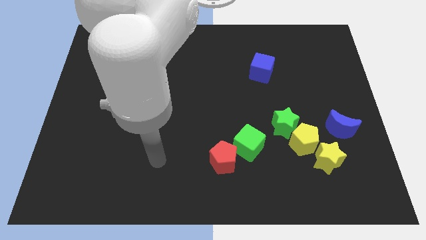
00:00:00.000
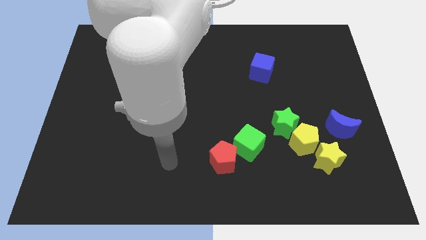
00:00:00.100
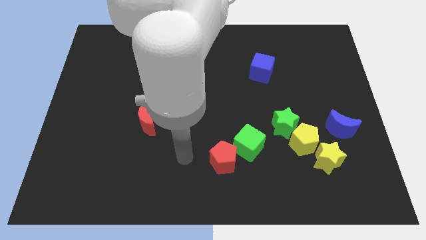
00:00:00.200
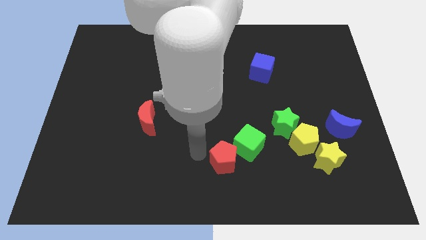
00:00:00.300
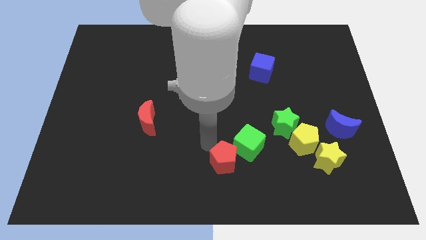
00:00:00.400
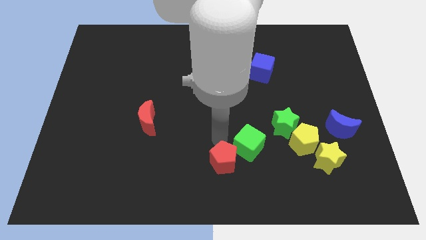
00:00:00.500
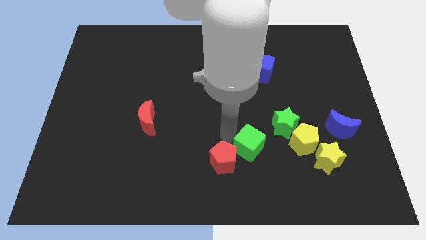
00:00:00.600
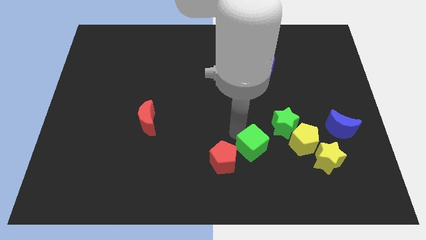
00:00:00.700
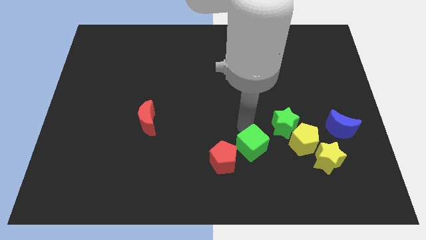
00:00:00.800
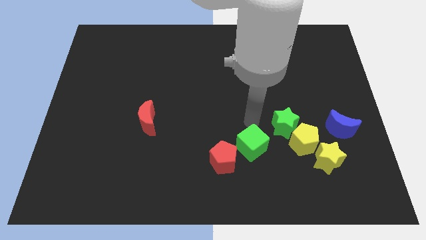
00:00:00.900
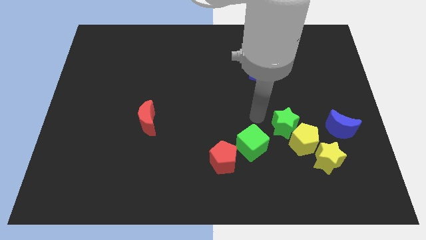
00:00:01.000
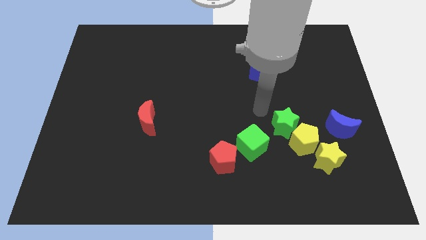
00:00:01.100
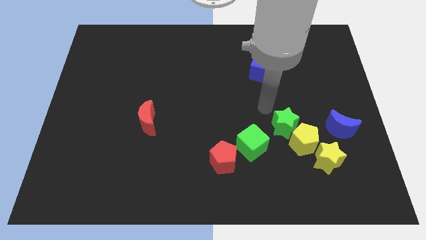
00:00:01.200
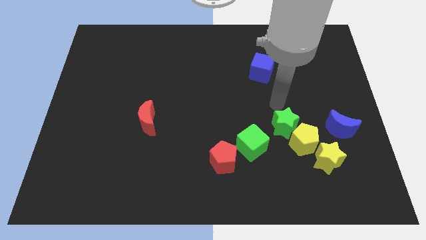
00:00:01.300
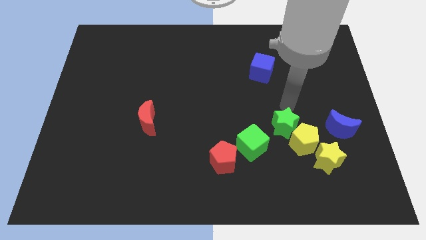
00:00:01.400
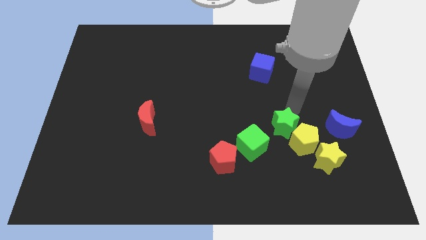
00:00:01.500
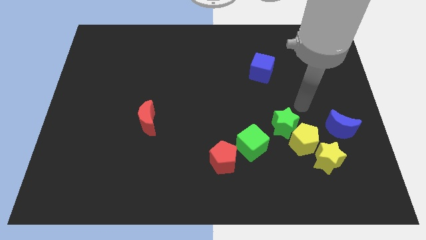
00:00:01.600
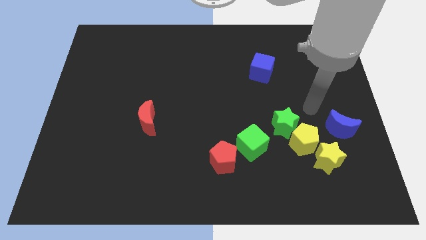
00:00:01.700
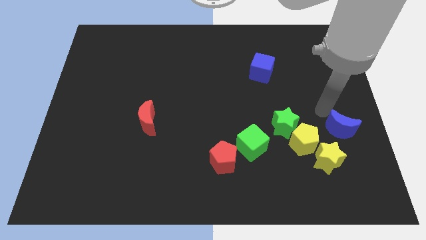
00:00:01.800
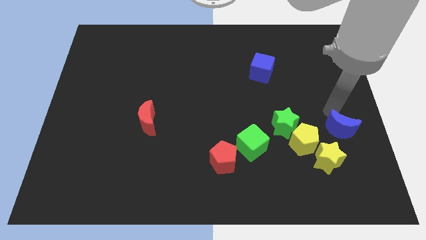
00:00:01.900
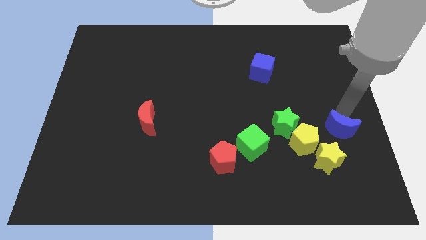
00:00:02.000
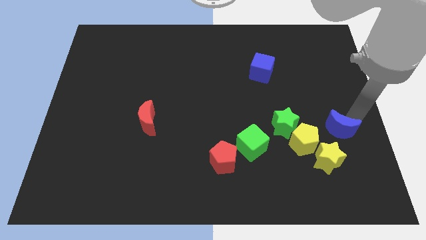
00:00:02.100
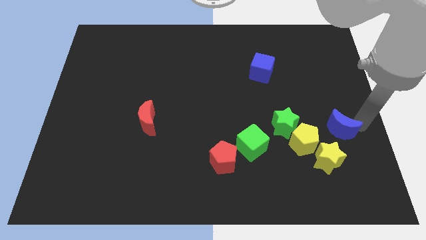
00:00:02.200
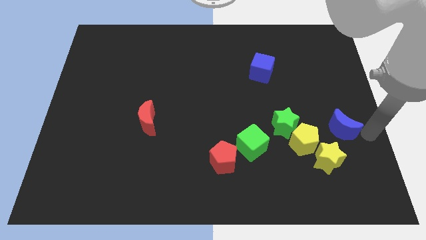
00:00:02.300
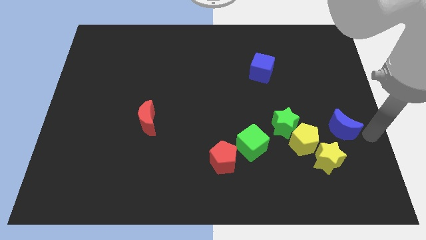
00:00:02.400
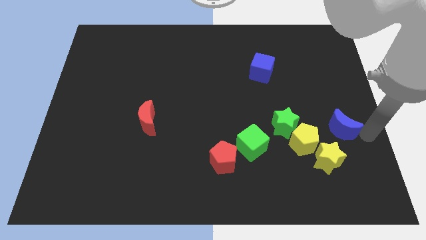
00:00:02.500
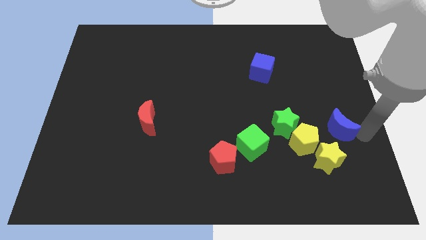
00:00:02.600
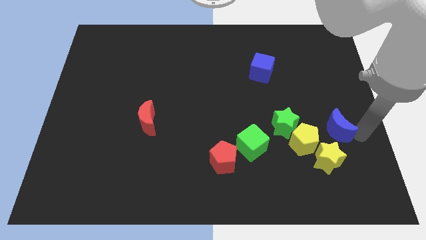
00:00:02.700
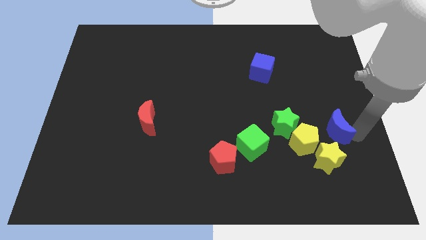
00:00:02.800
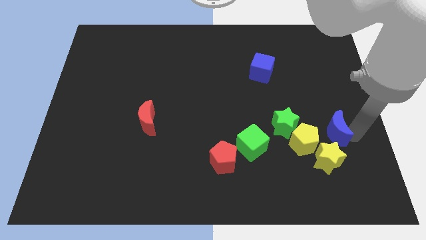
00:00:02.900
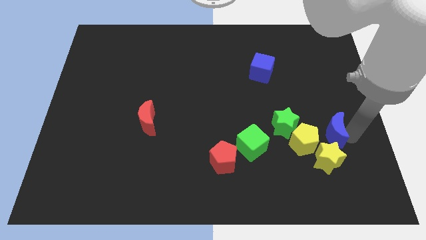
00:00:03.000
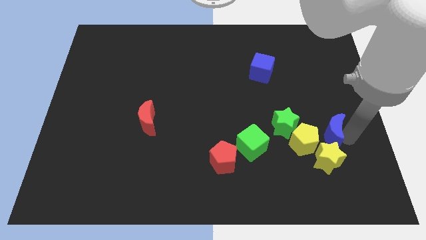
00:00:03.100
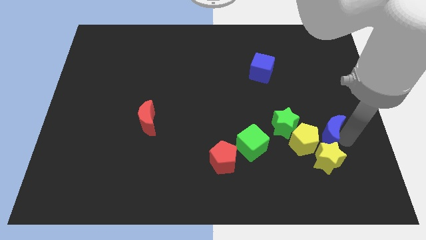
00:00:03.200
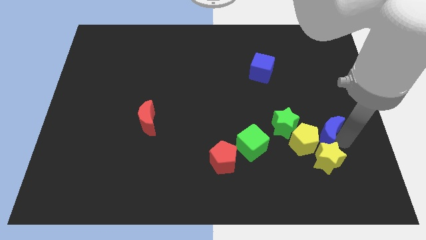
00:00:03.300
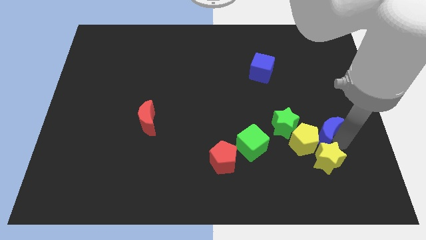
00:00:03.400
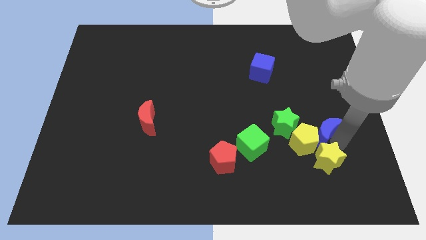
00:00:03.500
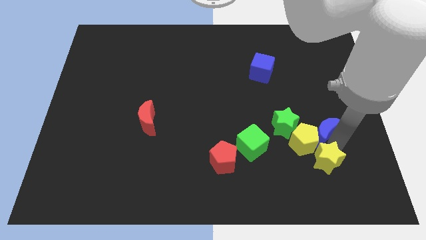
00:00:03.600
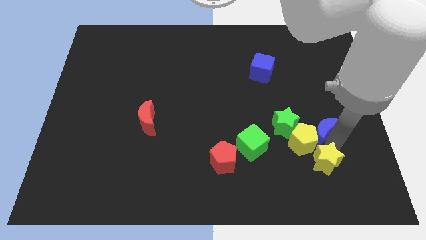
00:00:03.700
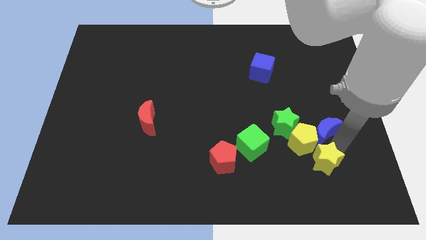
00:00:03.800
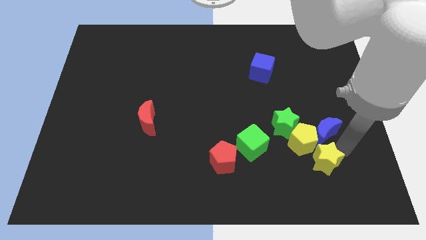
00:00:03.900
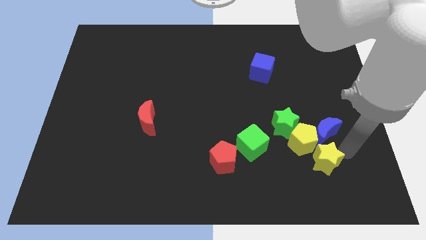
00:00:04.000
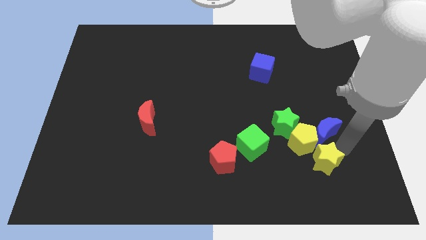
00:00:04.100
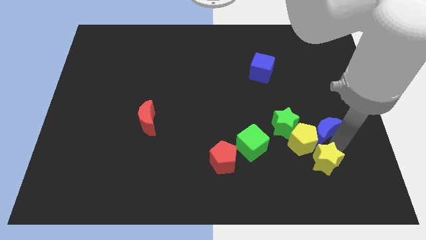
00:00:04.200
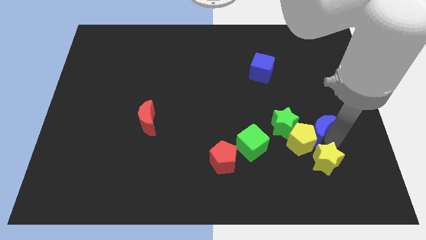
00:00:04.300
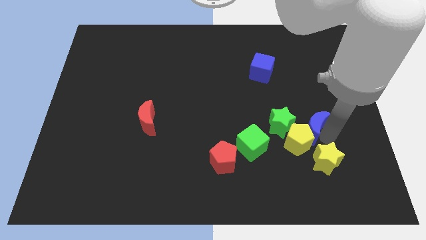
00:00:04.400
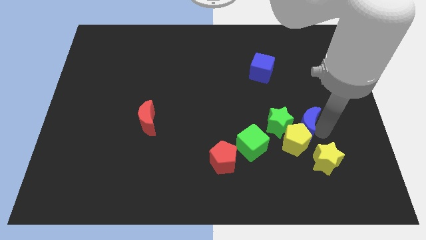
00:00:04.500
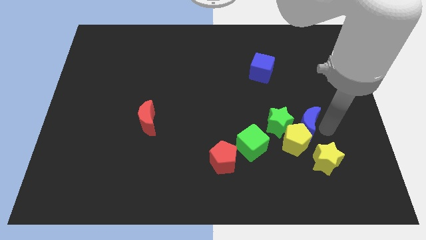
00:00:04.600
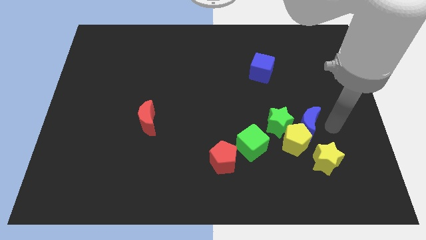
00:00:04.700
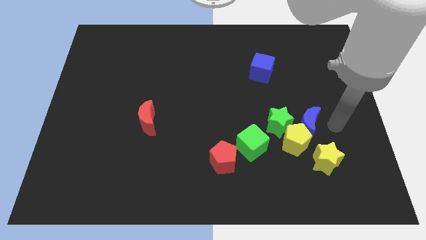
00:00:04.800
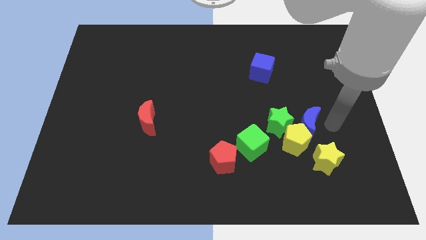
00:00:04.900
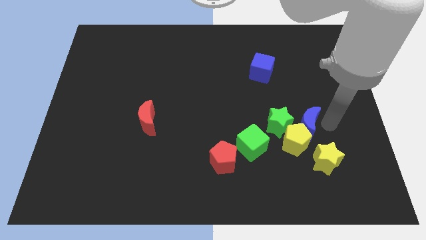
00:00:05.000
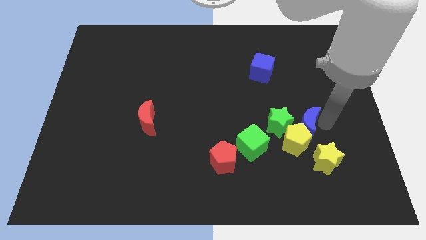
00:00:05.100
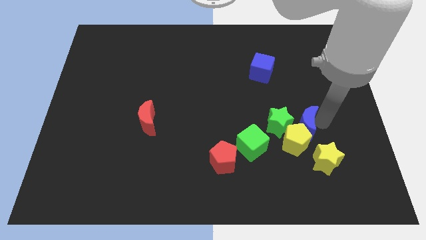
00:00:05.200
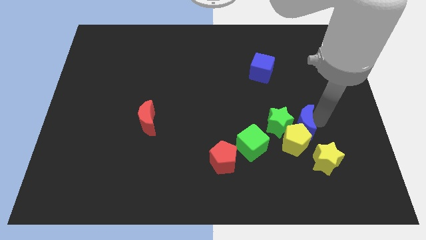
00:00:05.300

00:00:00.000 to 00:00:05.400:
push the blue moon to the green star

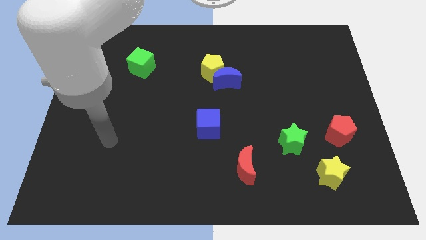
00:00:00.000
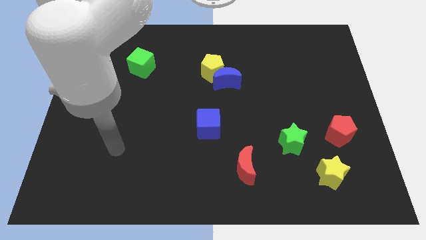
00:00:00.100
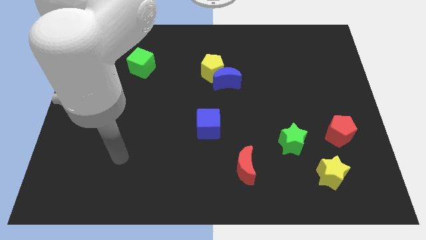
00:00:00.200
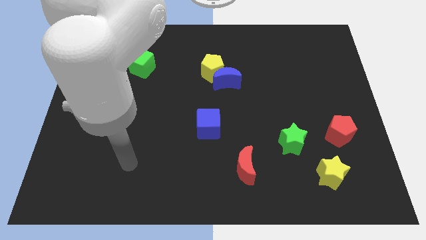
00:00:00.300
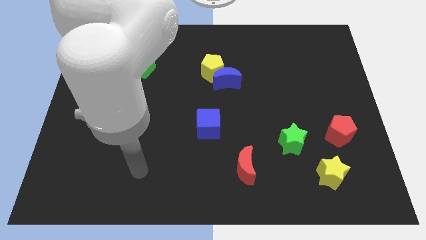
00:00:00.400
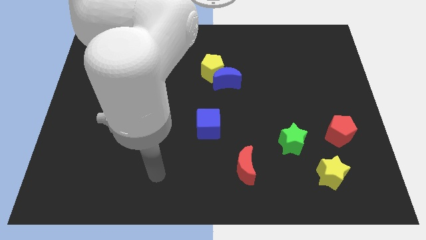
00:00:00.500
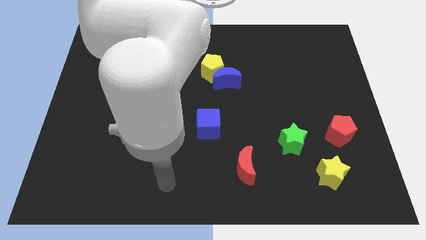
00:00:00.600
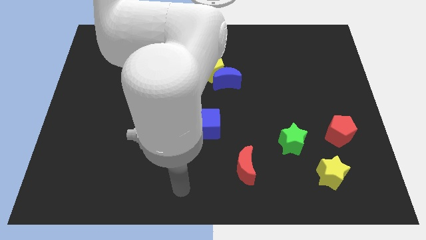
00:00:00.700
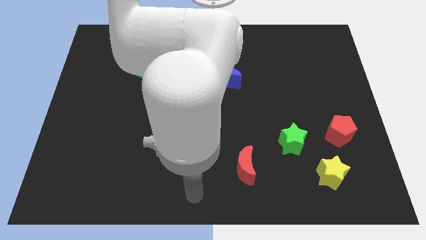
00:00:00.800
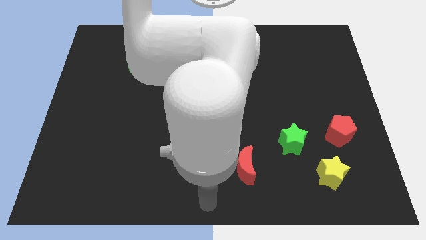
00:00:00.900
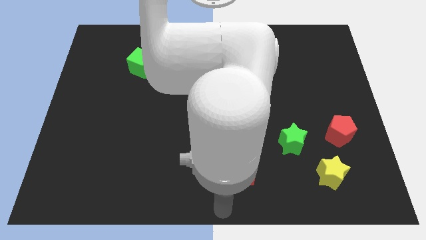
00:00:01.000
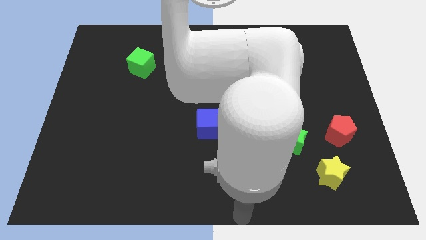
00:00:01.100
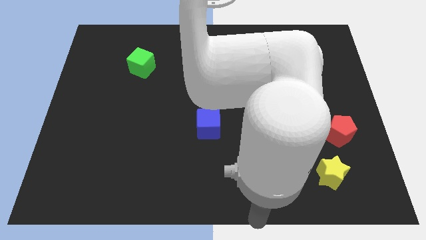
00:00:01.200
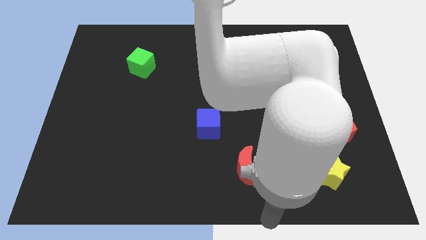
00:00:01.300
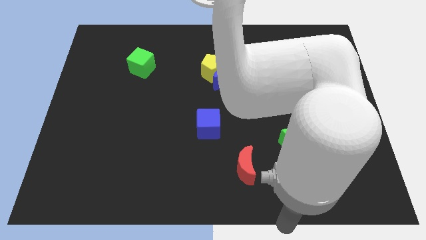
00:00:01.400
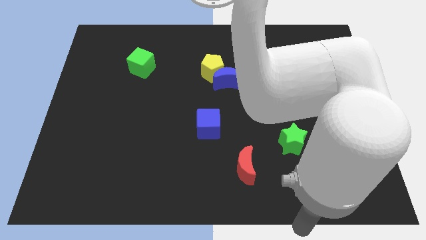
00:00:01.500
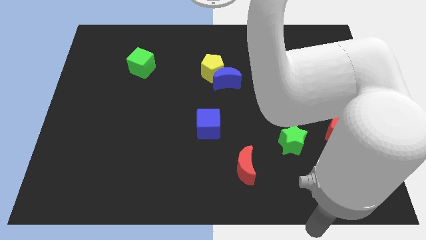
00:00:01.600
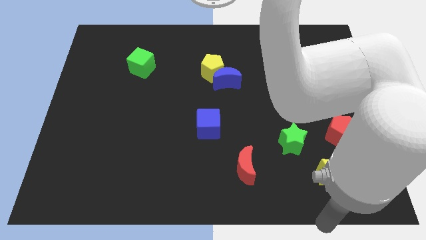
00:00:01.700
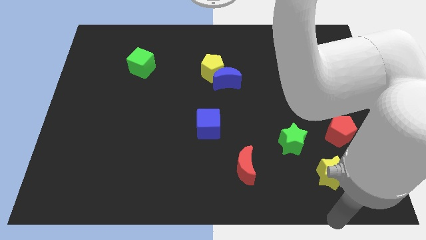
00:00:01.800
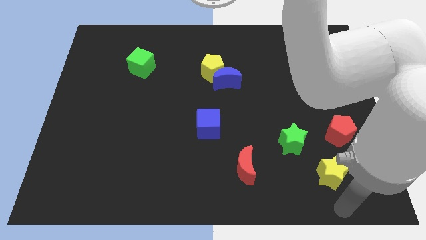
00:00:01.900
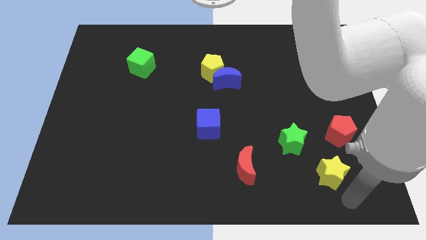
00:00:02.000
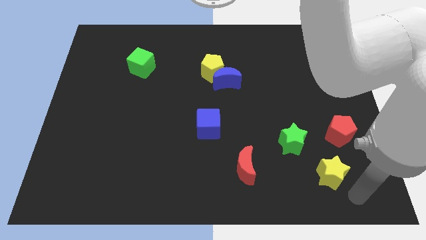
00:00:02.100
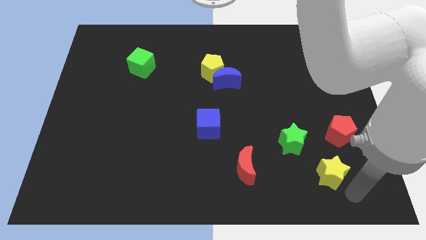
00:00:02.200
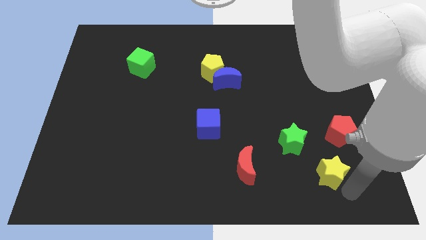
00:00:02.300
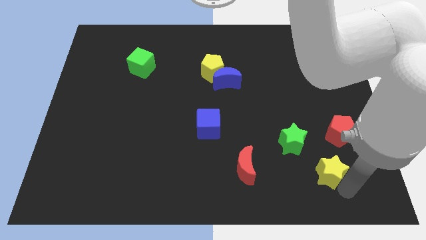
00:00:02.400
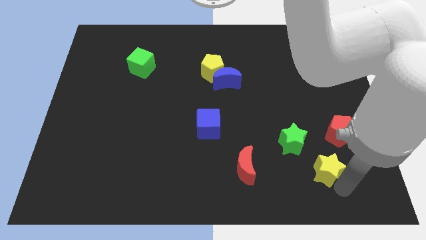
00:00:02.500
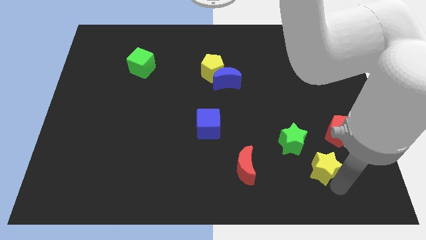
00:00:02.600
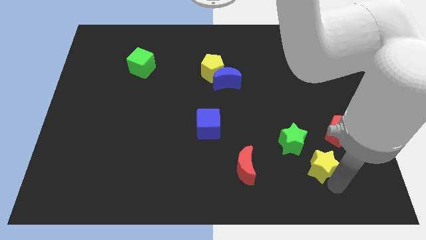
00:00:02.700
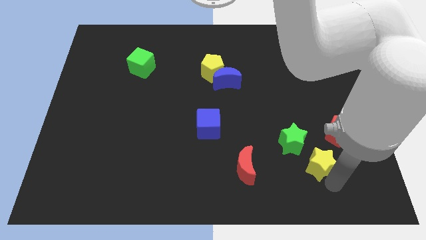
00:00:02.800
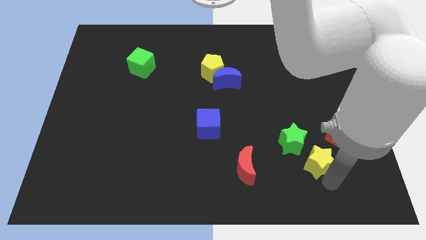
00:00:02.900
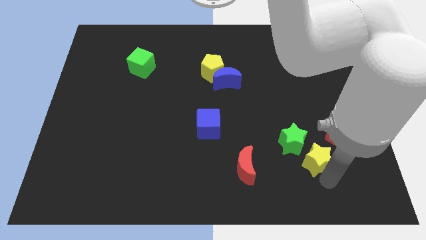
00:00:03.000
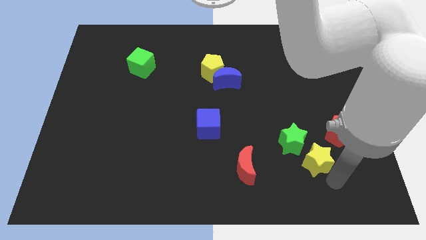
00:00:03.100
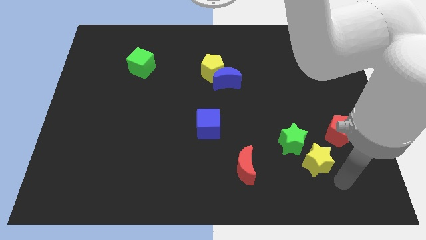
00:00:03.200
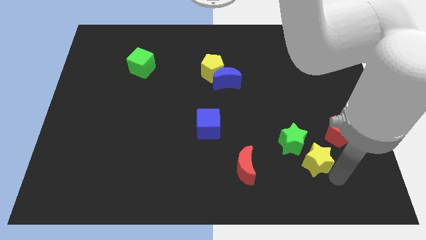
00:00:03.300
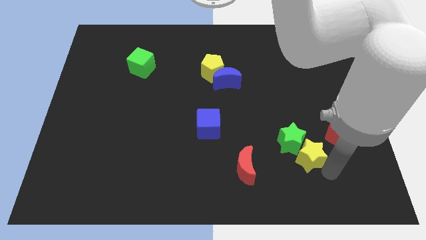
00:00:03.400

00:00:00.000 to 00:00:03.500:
push the yellow star to the green star
